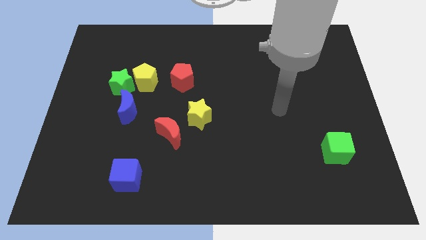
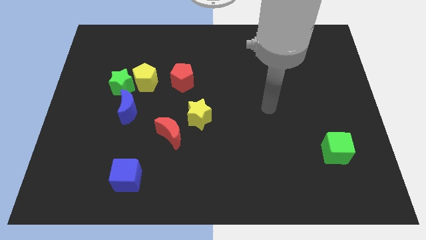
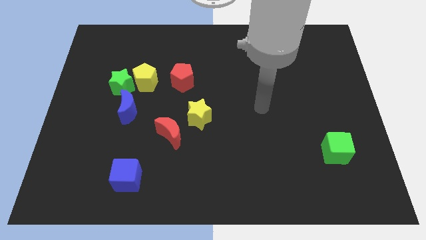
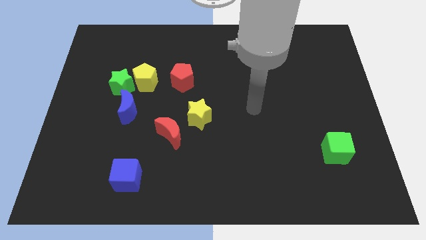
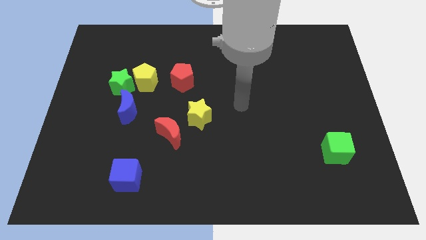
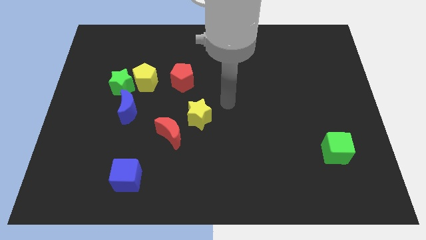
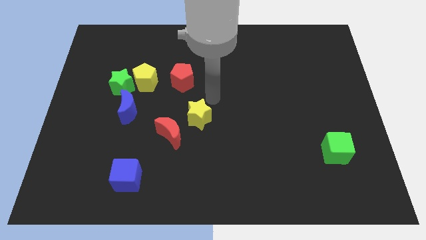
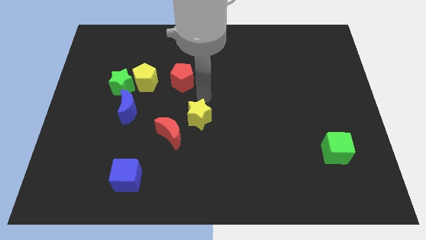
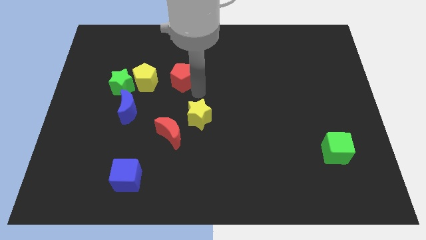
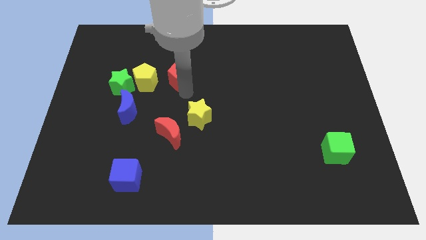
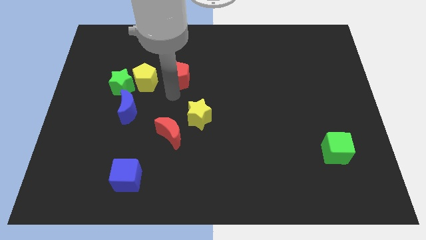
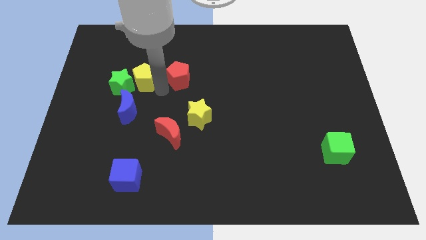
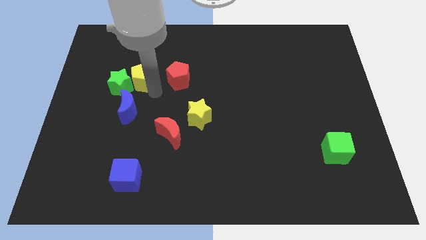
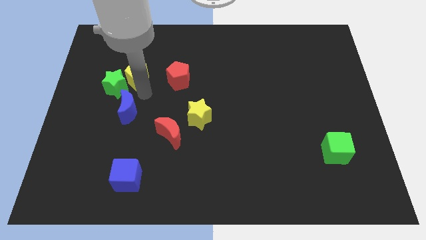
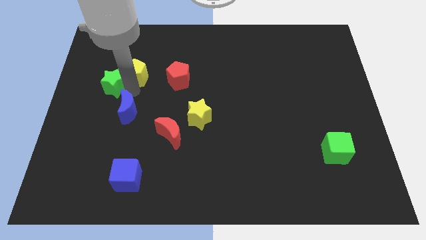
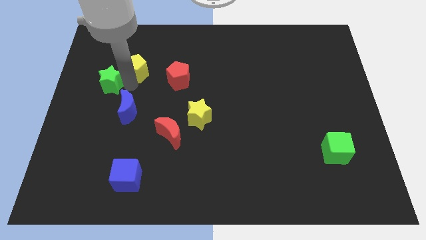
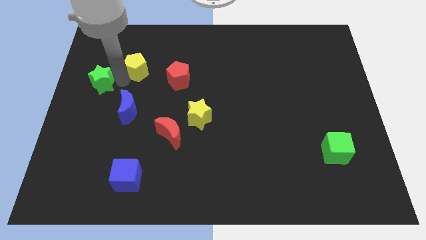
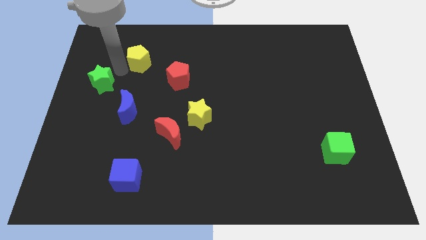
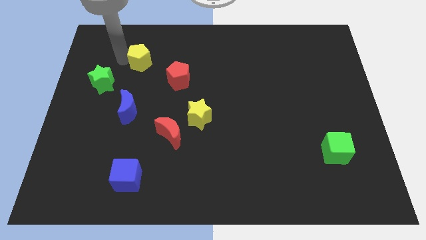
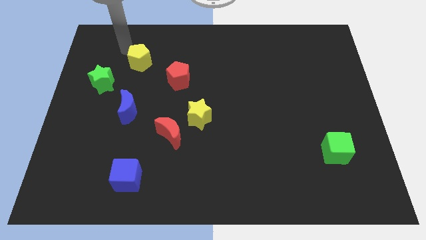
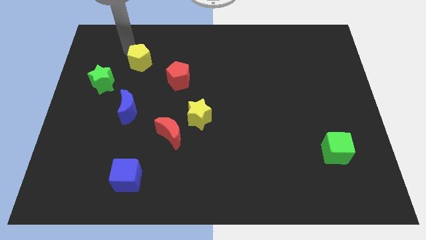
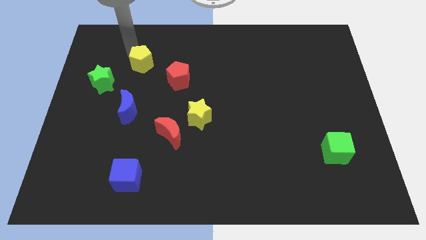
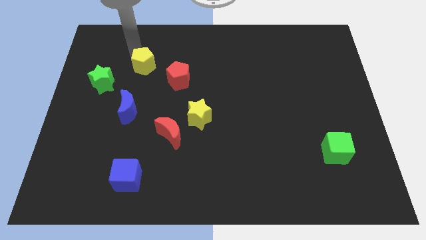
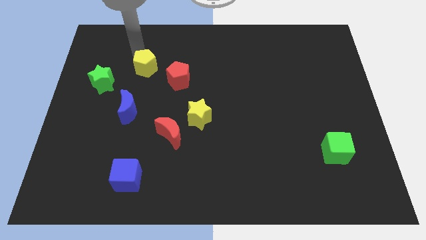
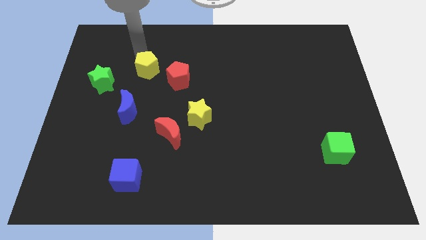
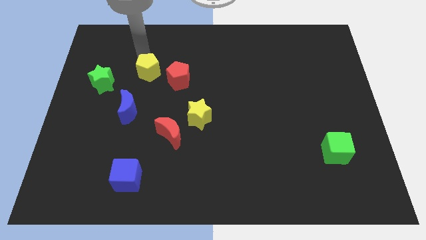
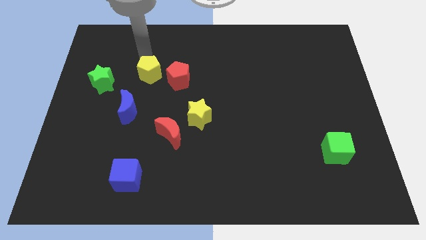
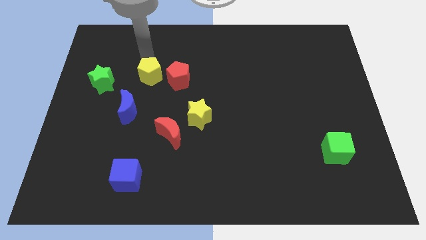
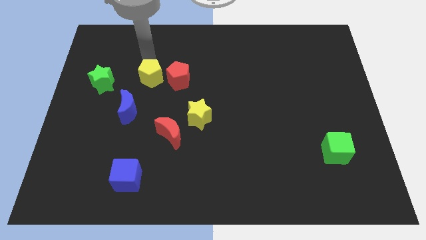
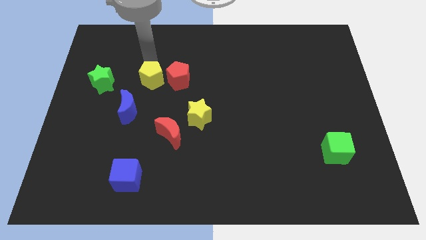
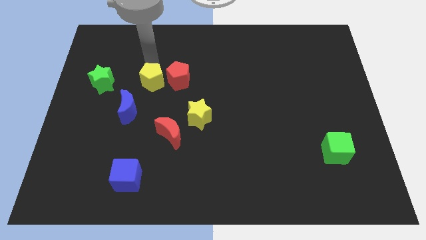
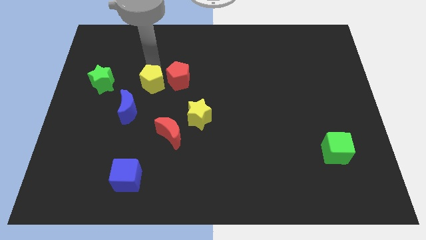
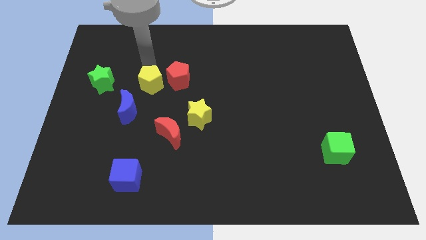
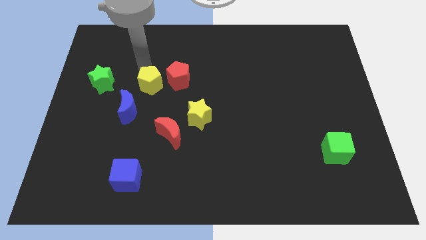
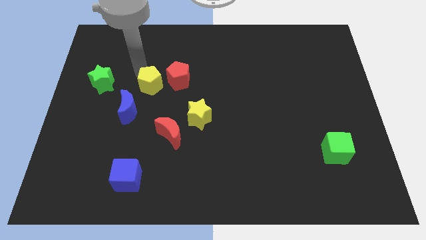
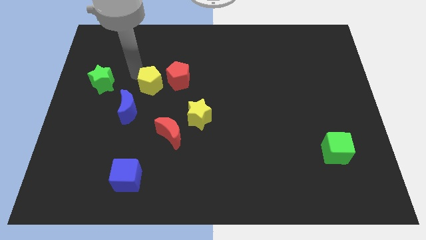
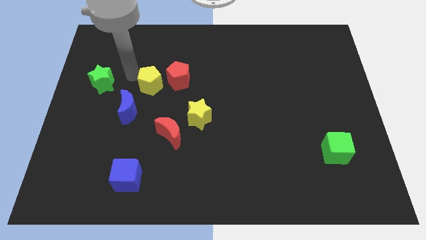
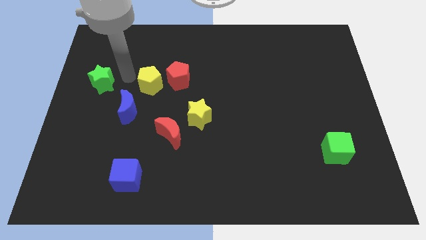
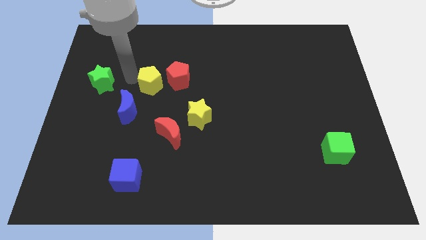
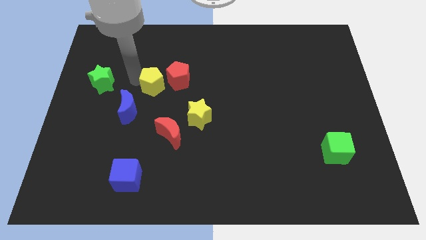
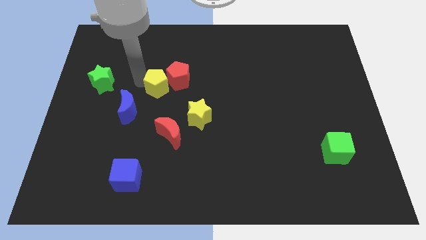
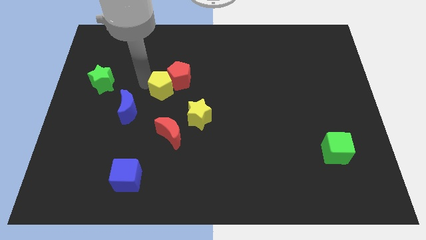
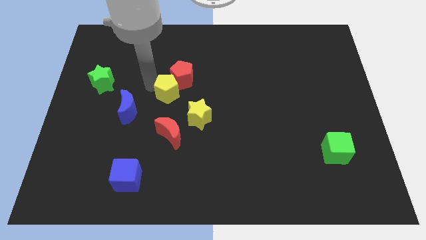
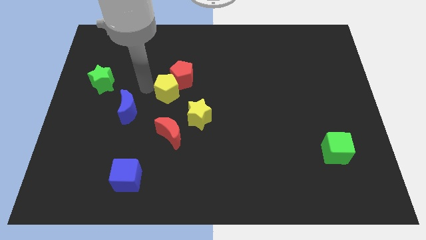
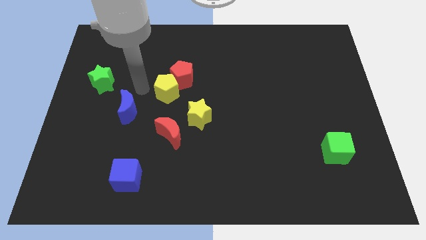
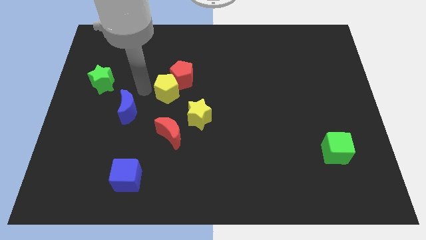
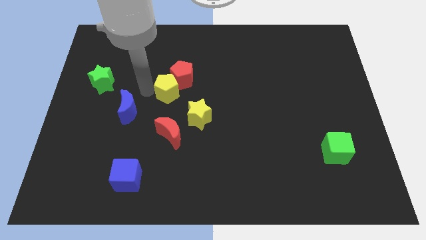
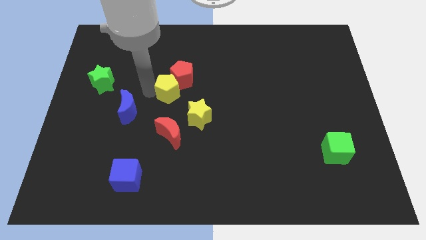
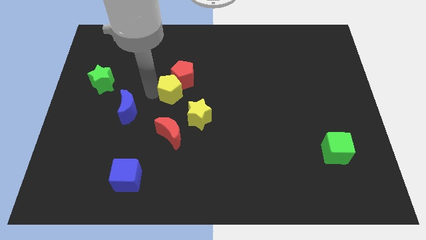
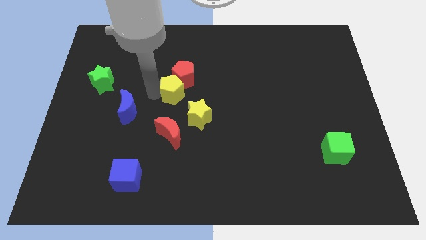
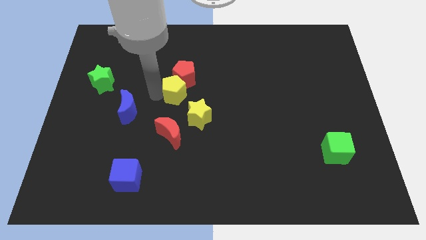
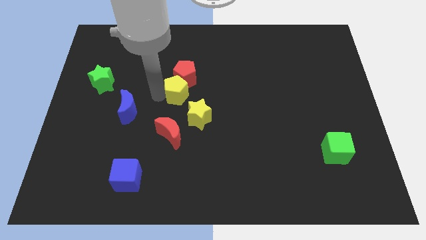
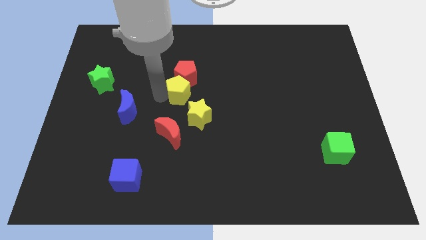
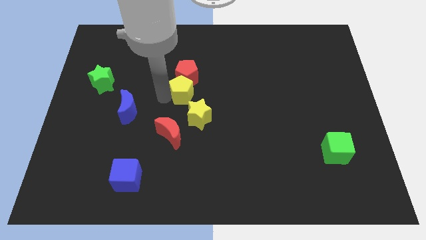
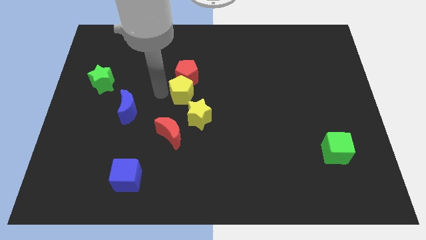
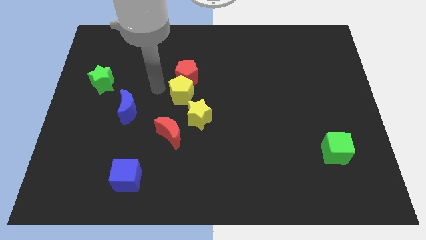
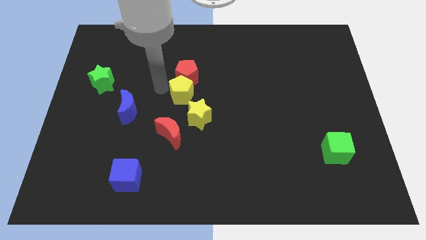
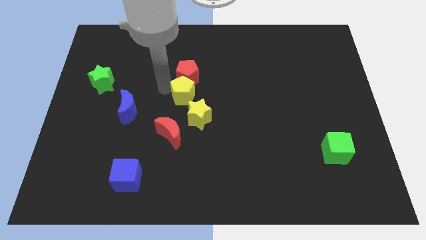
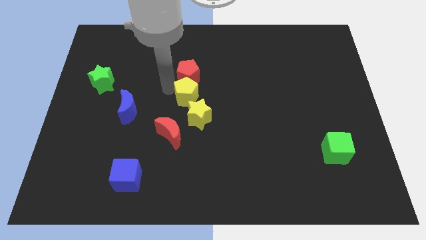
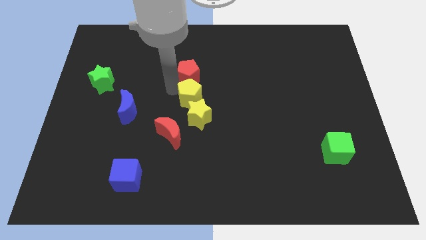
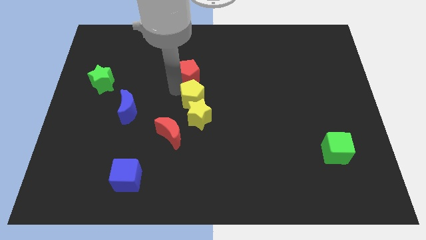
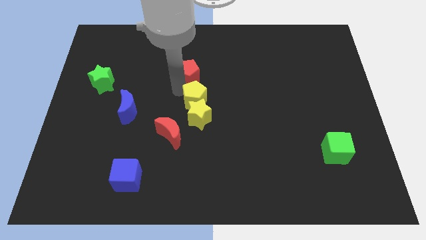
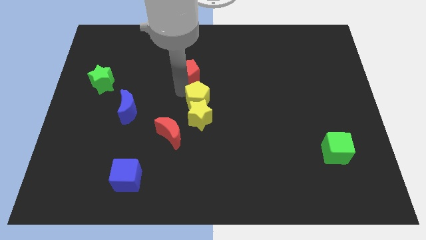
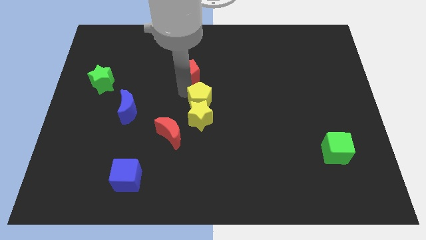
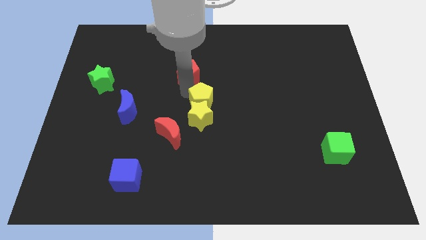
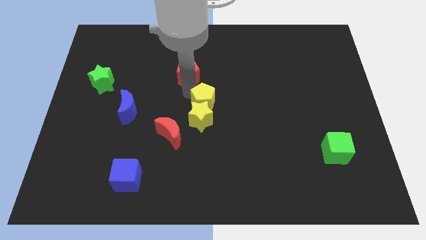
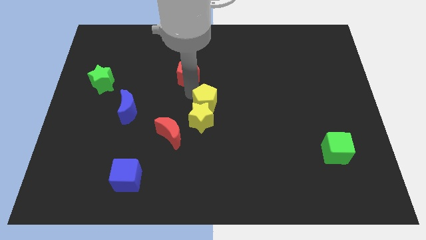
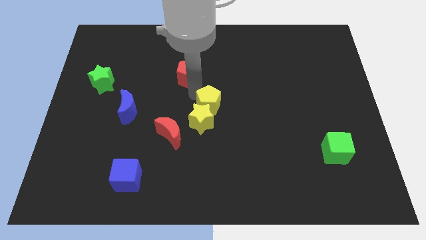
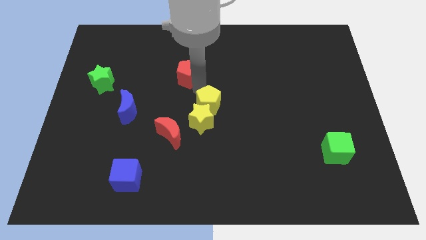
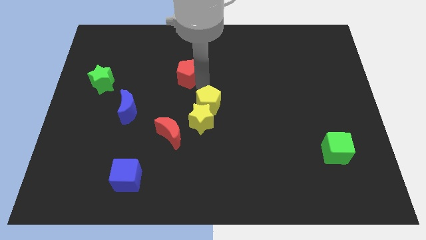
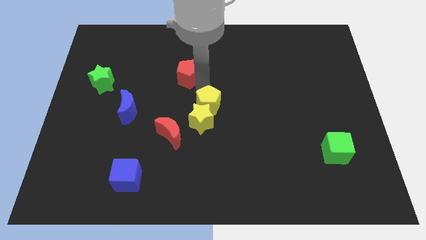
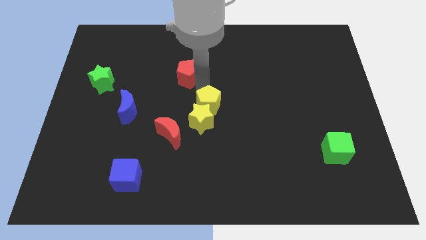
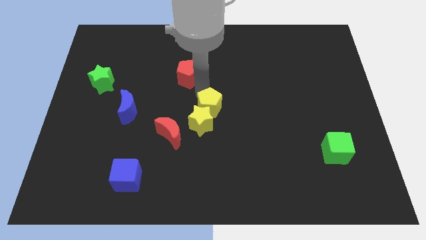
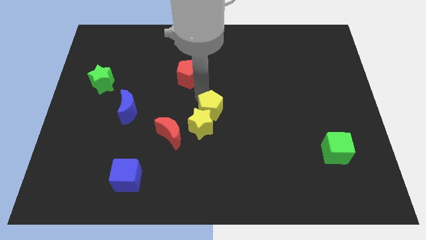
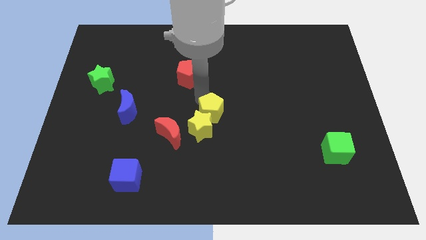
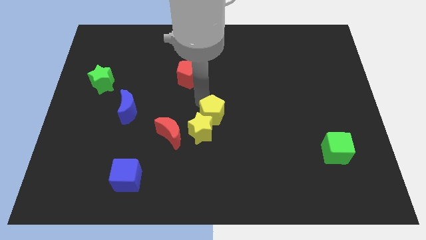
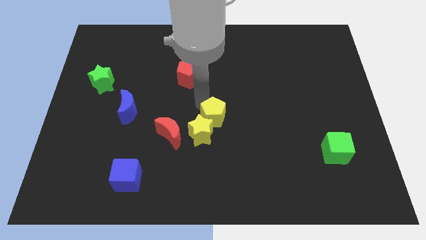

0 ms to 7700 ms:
move the yellow pentagon to the right side of the red moon
